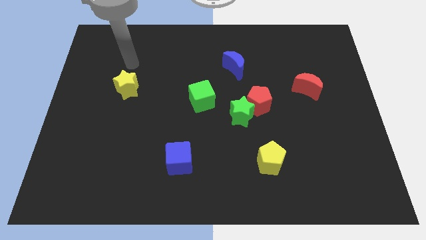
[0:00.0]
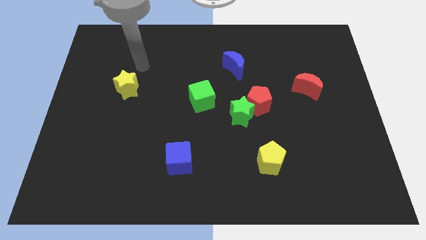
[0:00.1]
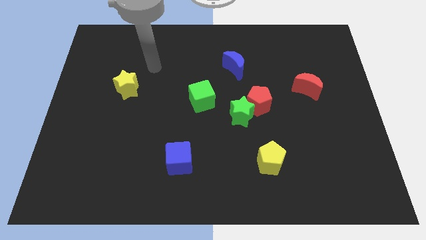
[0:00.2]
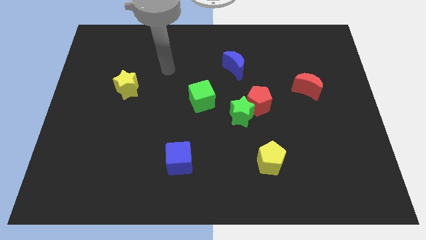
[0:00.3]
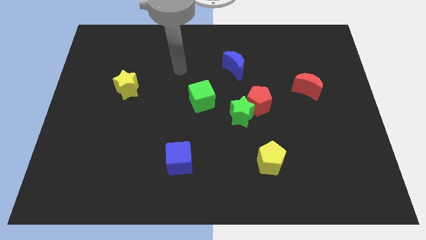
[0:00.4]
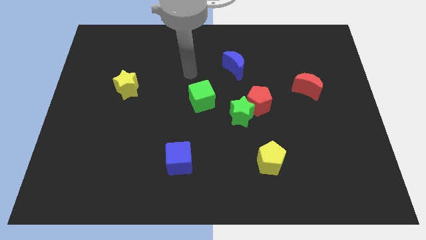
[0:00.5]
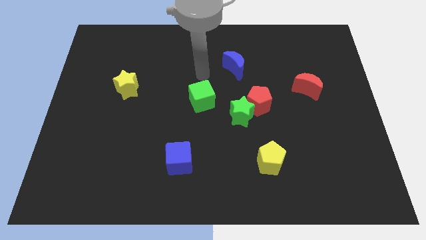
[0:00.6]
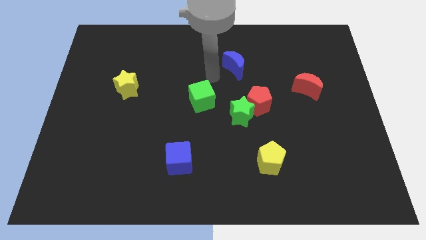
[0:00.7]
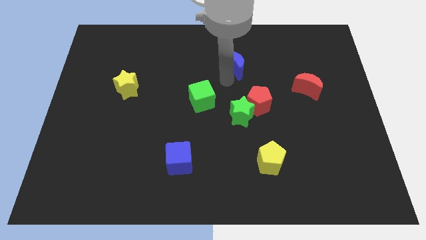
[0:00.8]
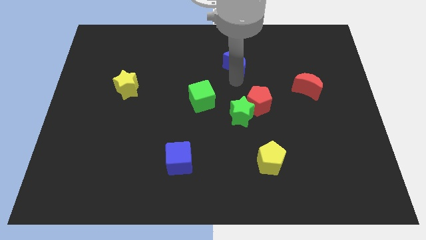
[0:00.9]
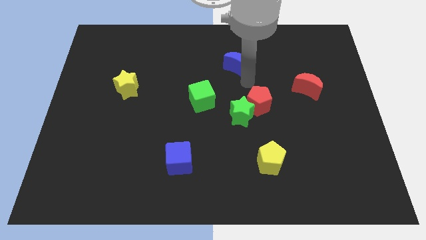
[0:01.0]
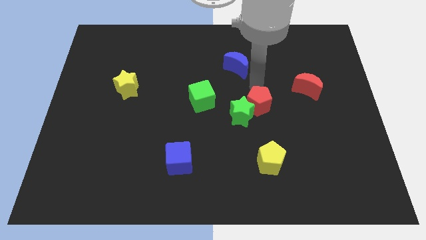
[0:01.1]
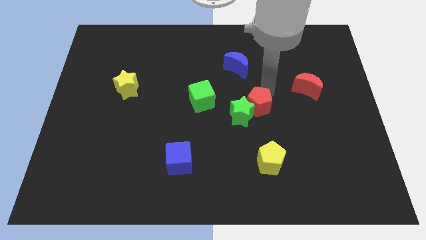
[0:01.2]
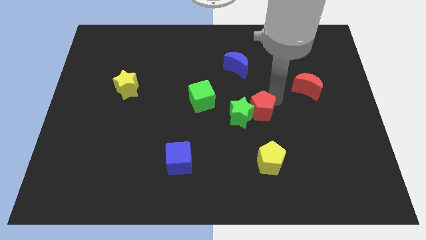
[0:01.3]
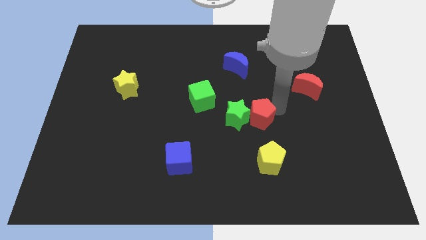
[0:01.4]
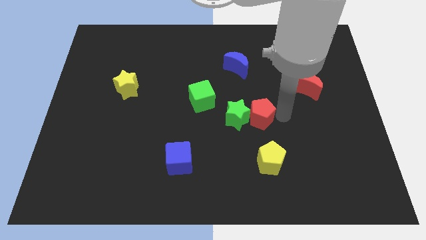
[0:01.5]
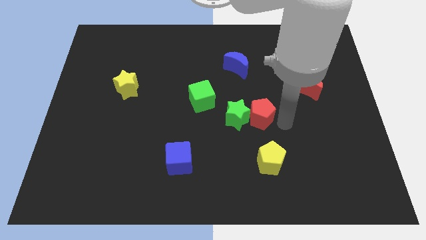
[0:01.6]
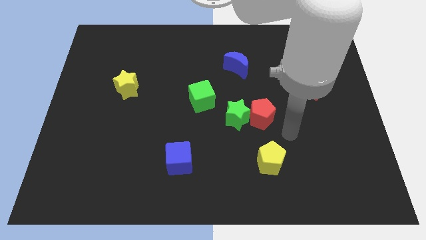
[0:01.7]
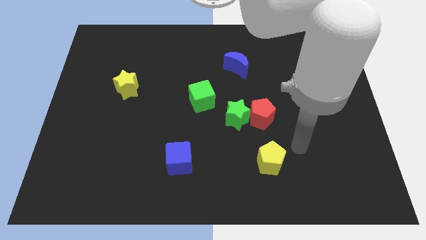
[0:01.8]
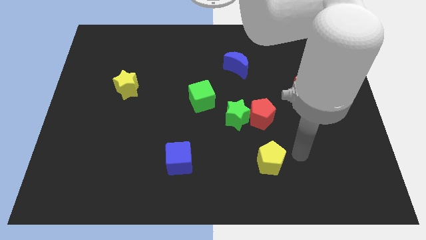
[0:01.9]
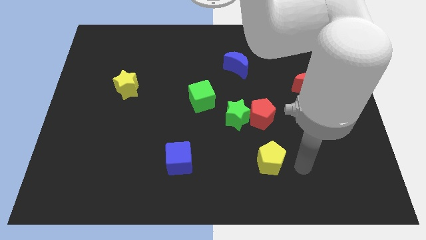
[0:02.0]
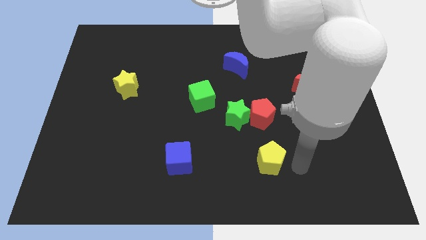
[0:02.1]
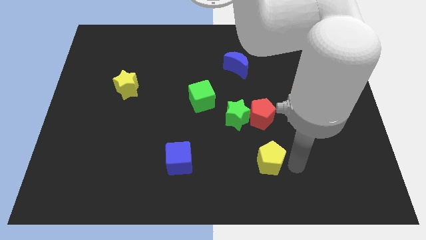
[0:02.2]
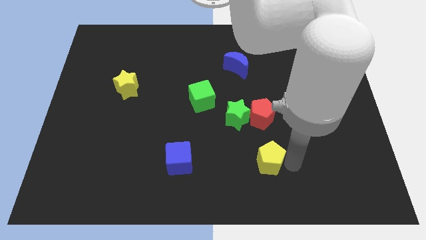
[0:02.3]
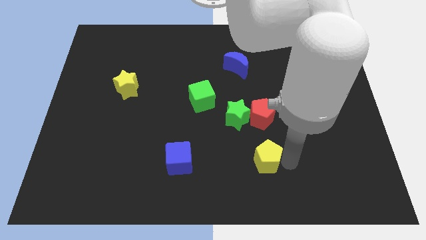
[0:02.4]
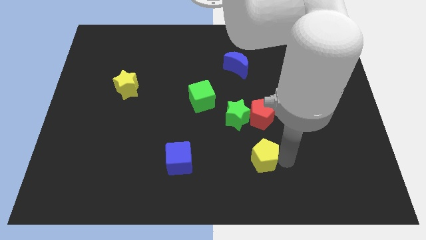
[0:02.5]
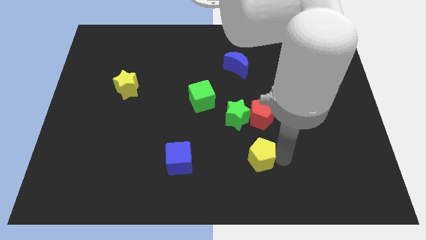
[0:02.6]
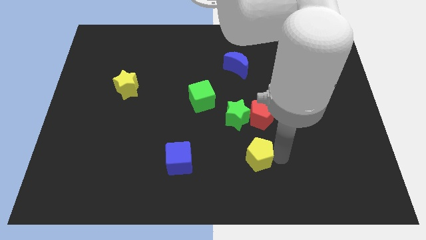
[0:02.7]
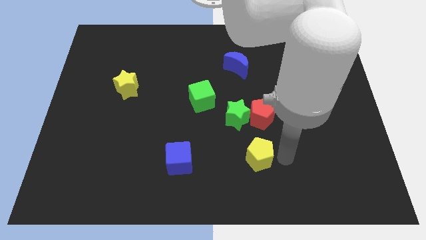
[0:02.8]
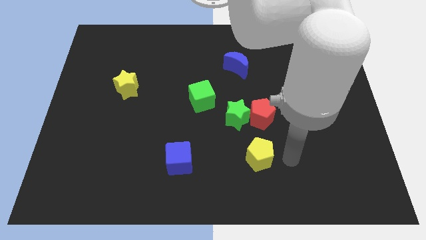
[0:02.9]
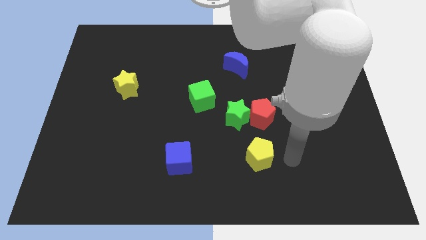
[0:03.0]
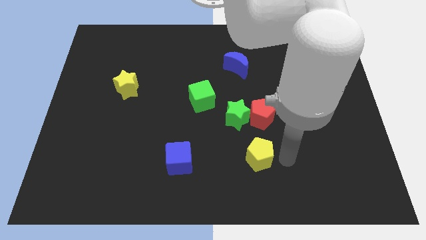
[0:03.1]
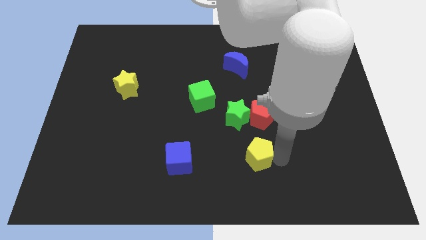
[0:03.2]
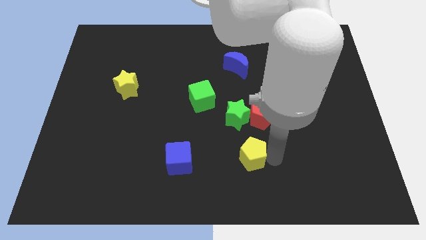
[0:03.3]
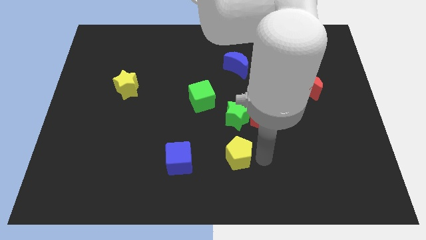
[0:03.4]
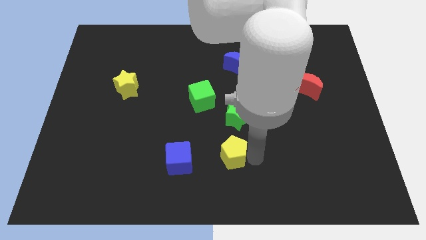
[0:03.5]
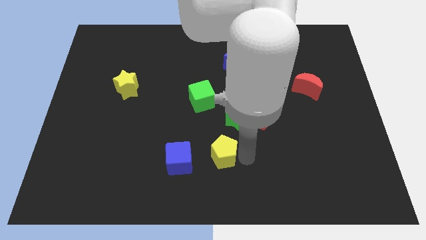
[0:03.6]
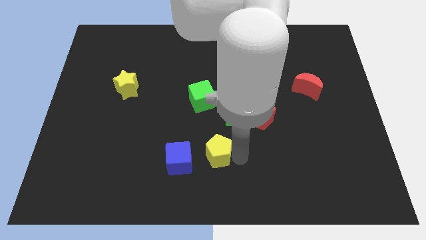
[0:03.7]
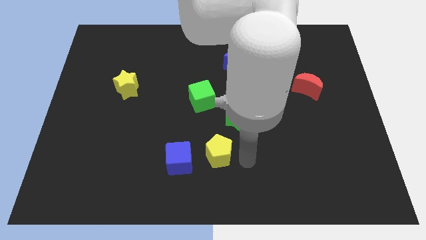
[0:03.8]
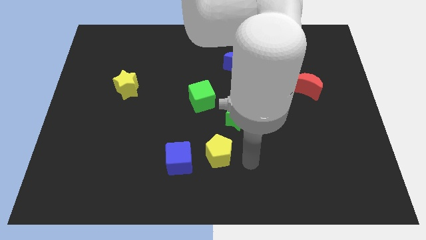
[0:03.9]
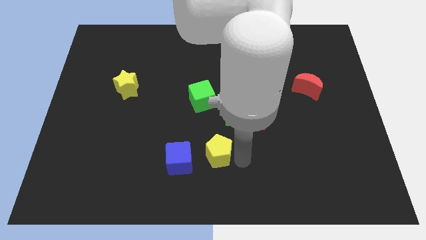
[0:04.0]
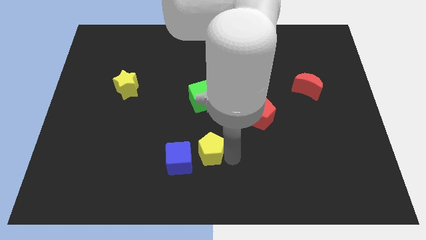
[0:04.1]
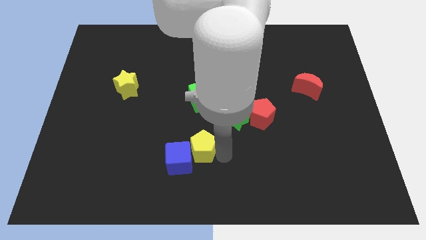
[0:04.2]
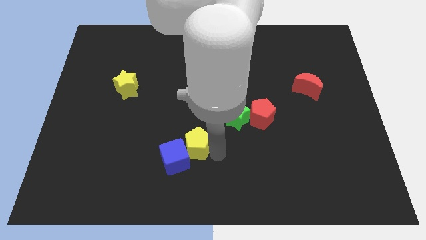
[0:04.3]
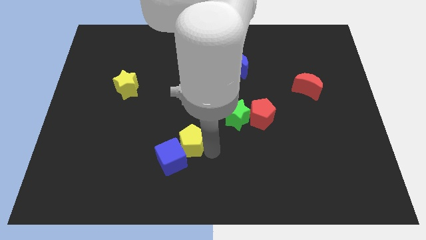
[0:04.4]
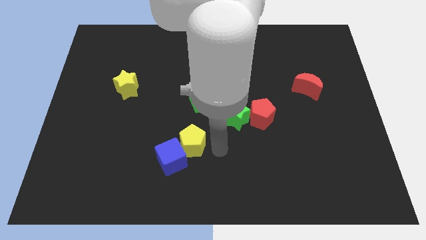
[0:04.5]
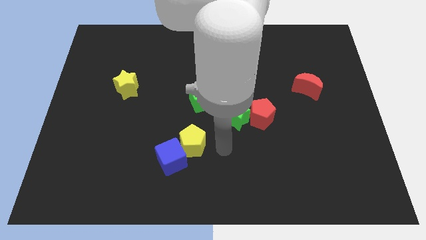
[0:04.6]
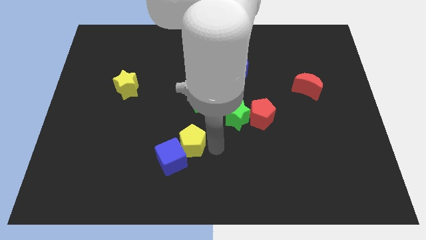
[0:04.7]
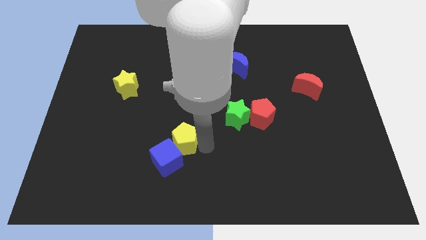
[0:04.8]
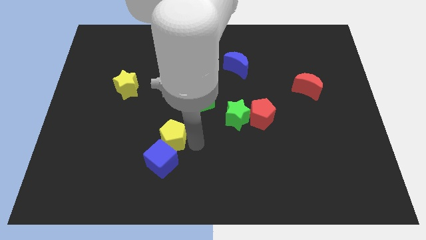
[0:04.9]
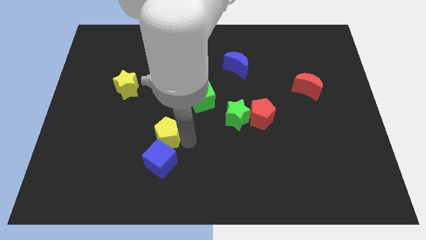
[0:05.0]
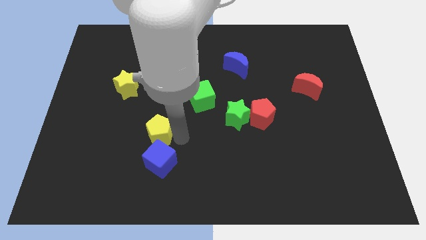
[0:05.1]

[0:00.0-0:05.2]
push the yellow pentagon to the top left of the blue cube

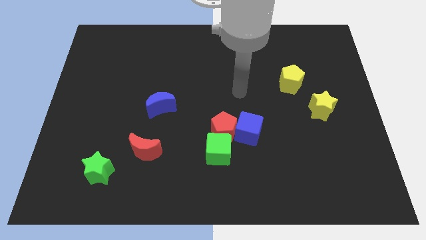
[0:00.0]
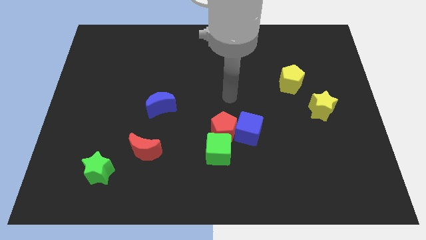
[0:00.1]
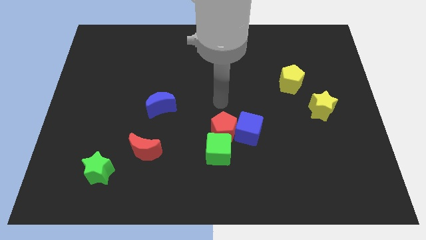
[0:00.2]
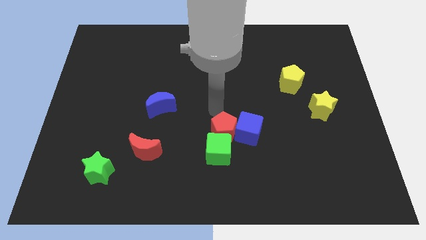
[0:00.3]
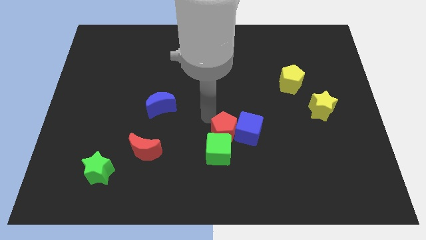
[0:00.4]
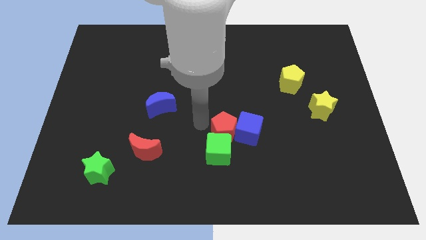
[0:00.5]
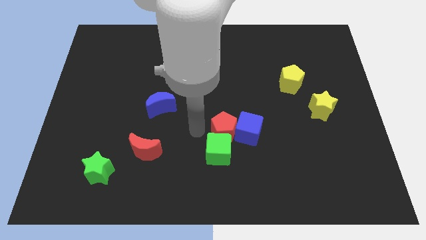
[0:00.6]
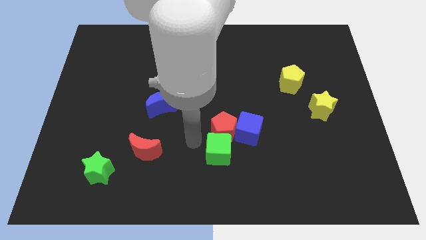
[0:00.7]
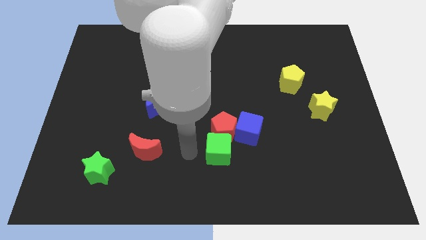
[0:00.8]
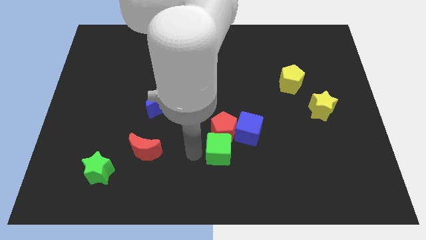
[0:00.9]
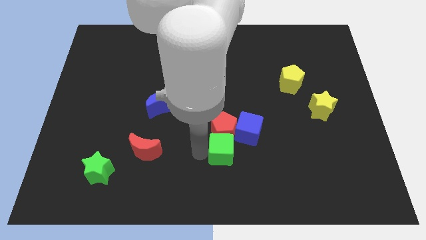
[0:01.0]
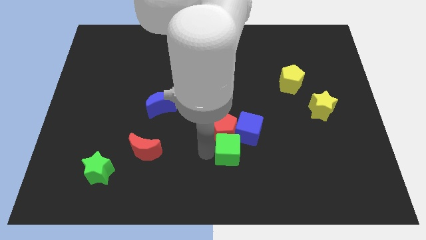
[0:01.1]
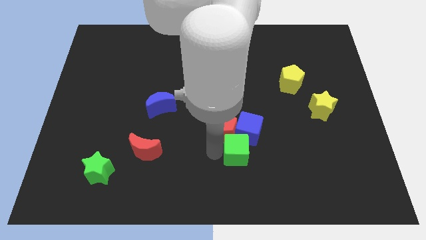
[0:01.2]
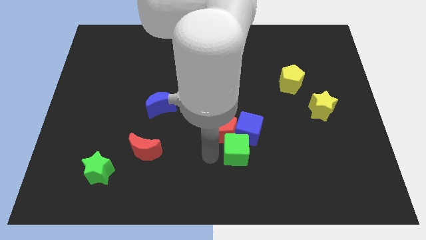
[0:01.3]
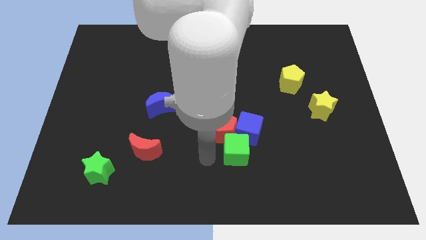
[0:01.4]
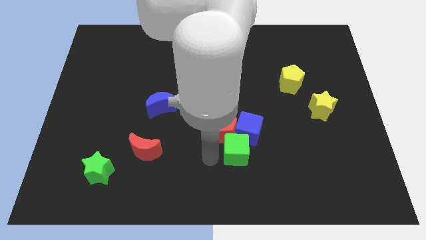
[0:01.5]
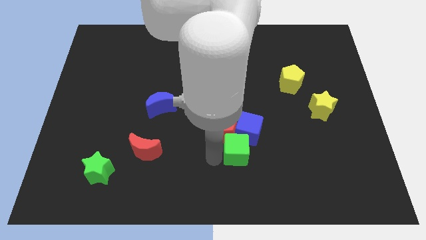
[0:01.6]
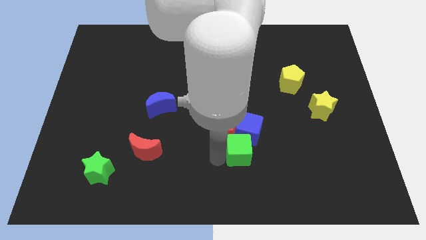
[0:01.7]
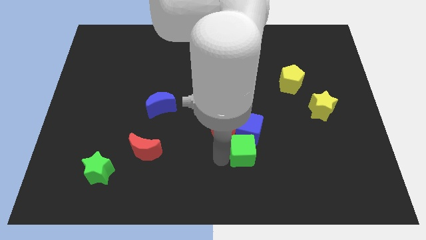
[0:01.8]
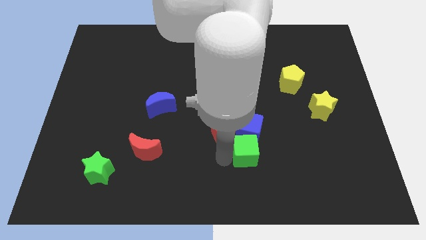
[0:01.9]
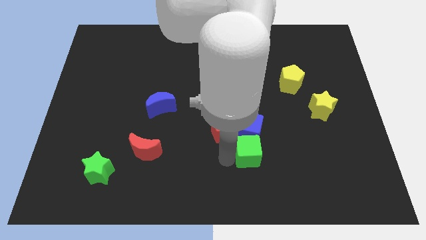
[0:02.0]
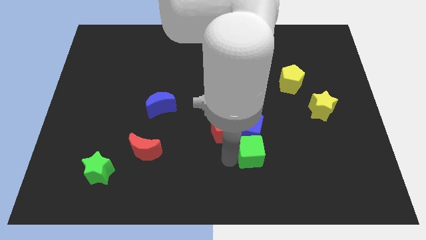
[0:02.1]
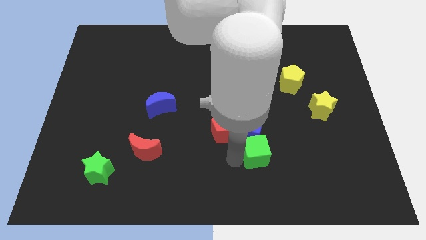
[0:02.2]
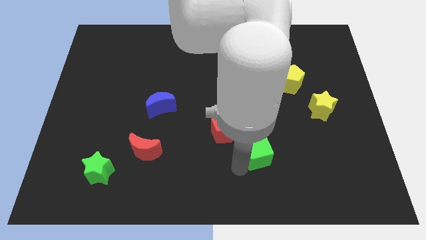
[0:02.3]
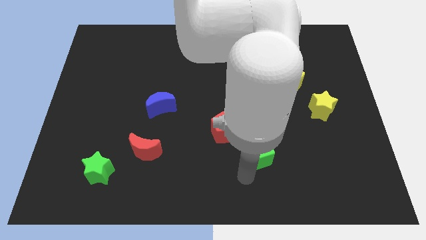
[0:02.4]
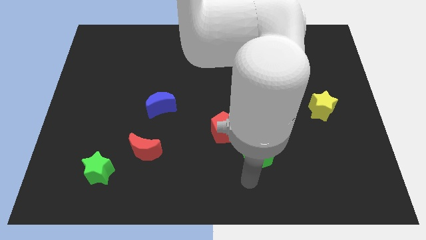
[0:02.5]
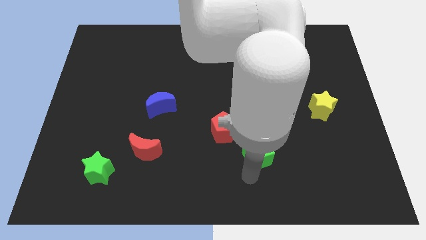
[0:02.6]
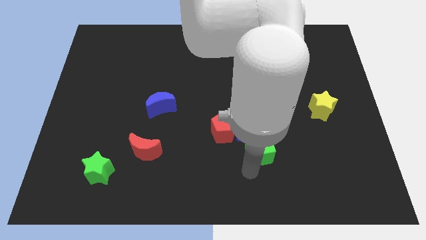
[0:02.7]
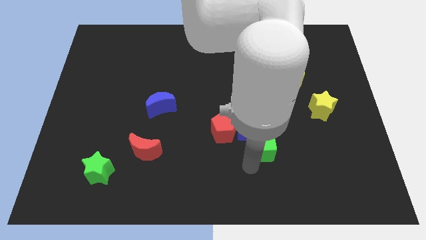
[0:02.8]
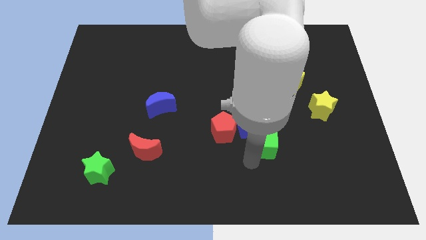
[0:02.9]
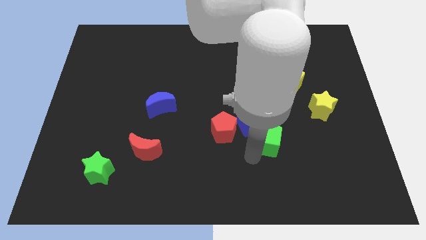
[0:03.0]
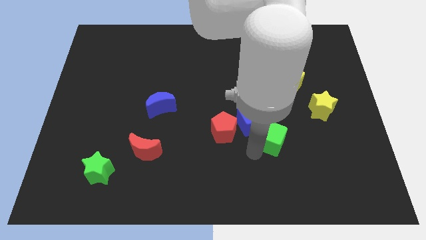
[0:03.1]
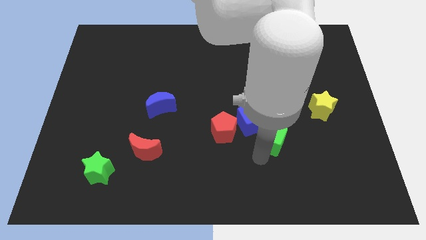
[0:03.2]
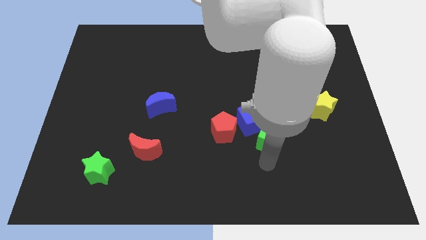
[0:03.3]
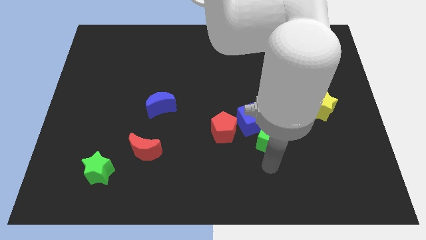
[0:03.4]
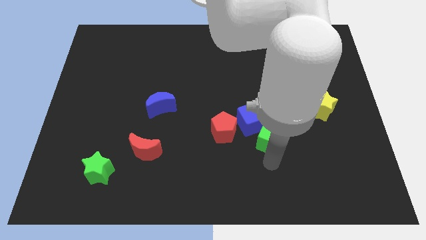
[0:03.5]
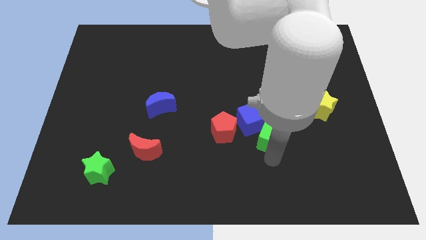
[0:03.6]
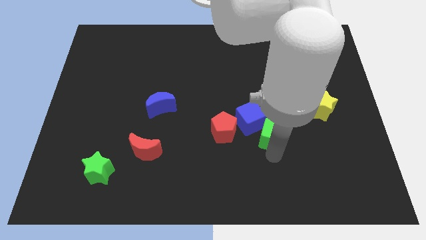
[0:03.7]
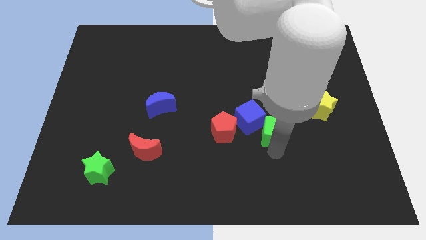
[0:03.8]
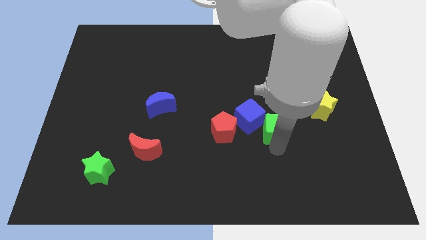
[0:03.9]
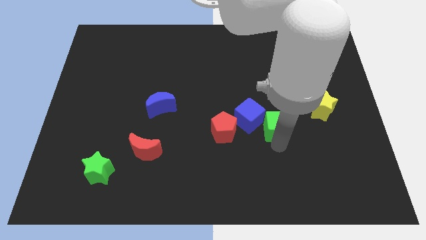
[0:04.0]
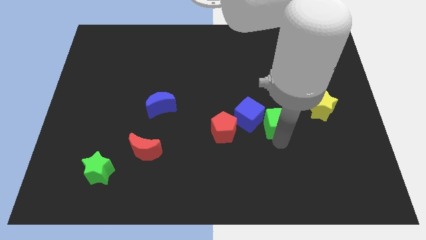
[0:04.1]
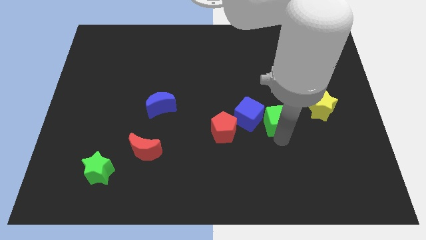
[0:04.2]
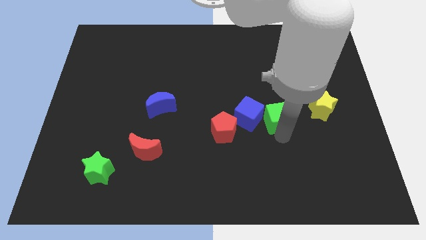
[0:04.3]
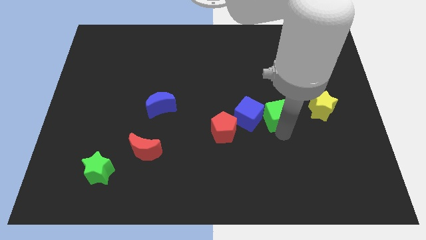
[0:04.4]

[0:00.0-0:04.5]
put the green cube diagonally up and to the right of the blue cube
